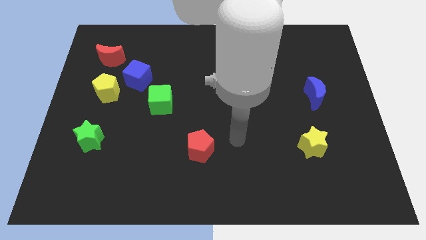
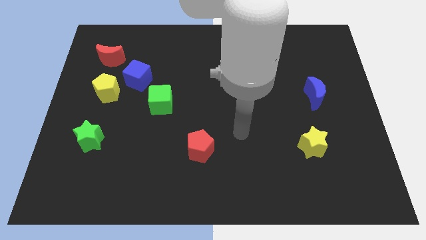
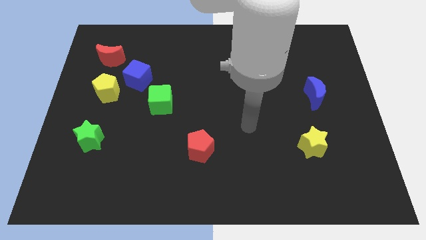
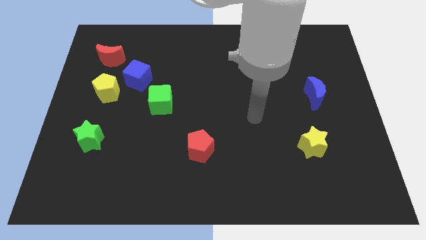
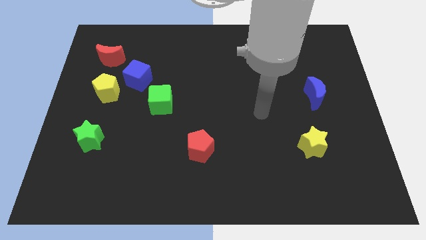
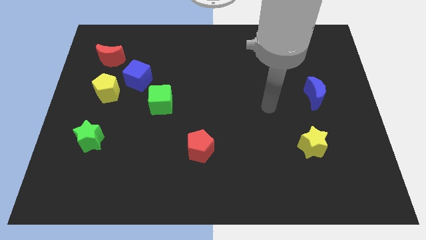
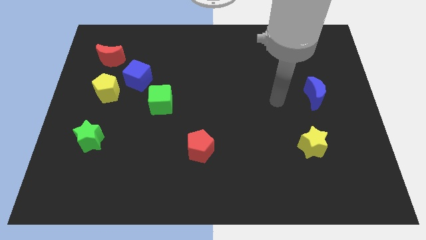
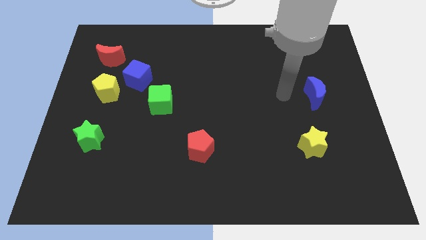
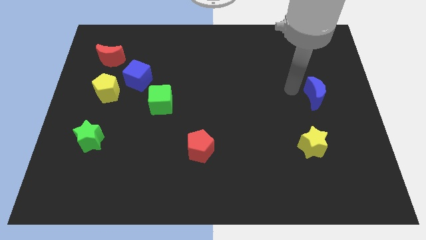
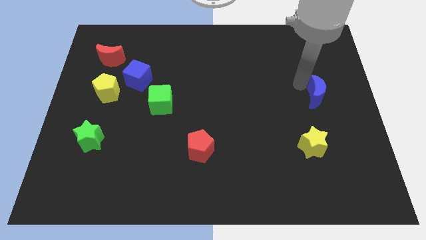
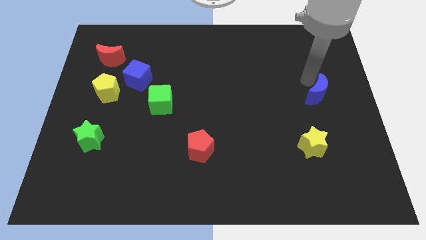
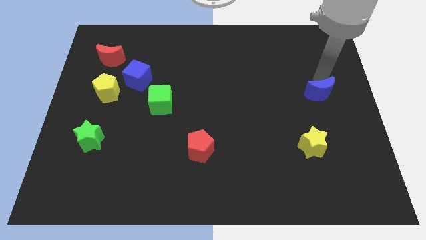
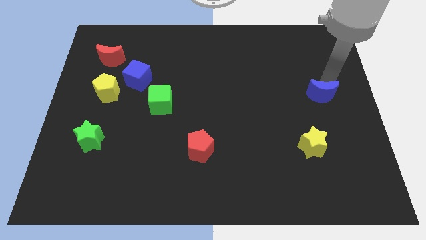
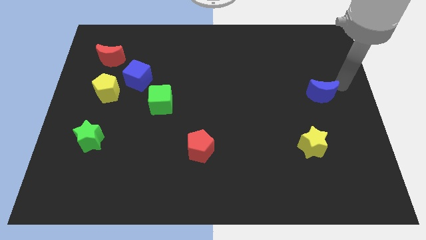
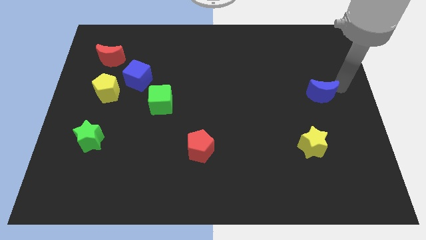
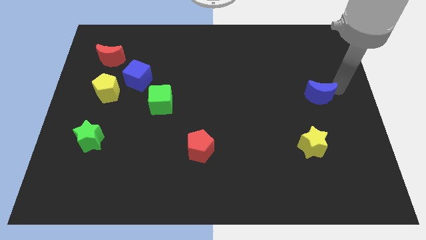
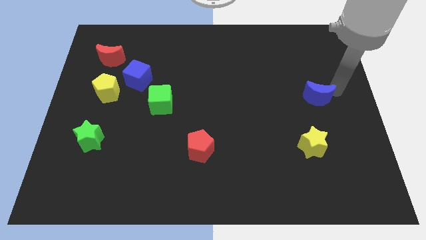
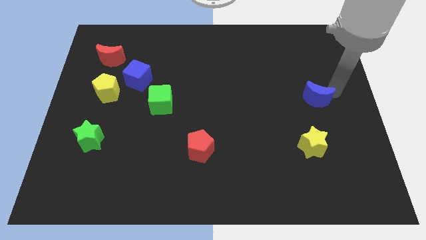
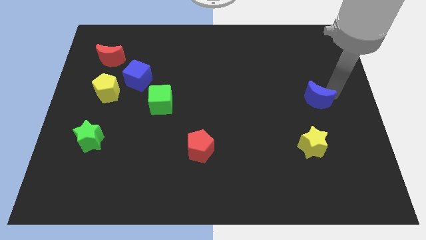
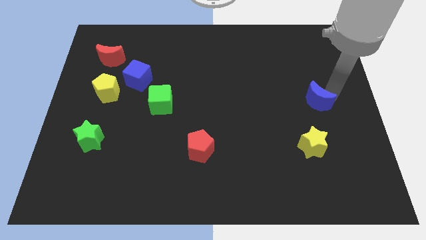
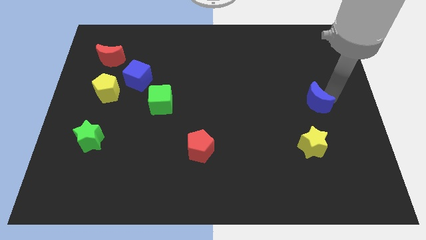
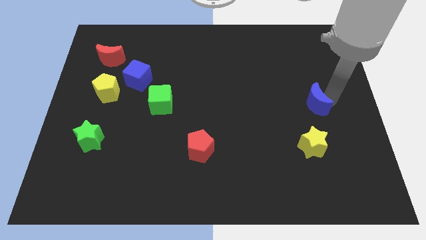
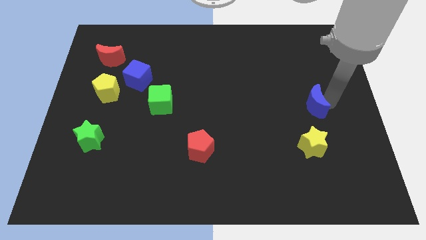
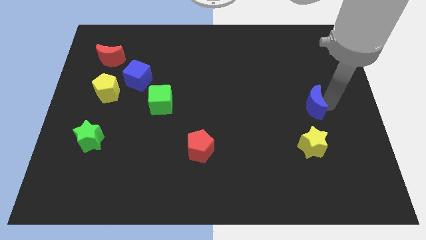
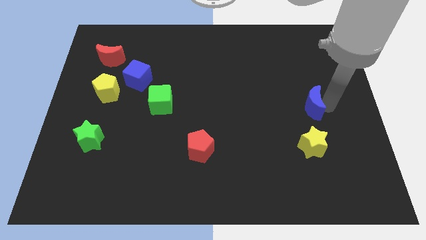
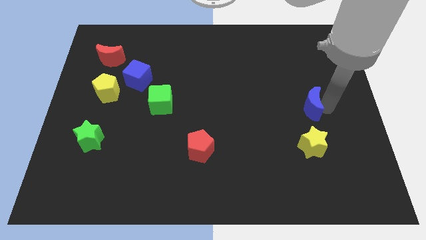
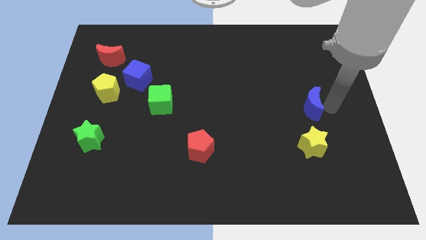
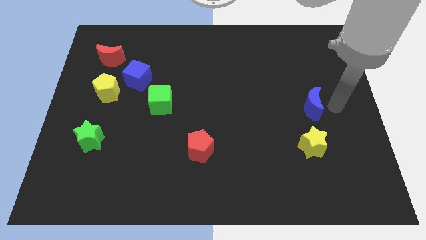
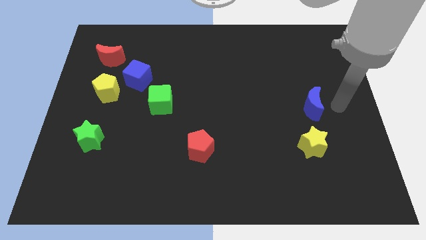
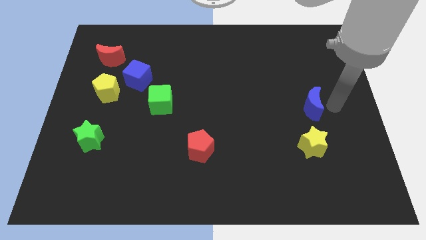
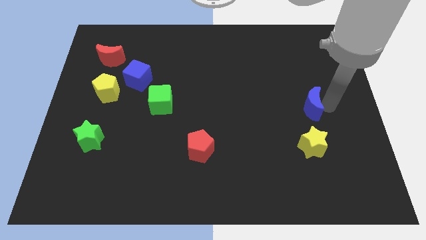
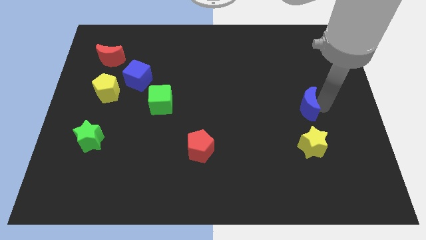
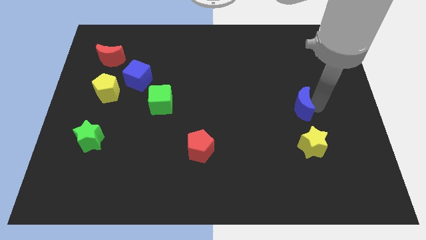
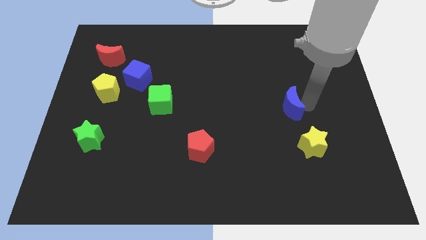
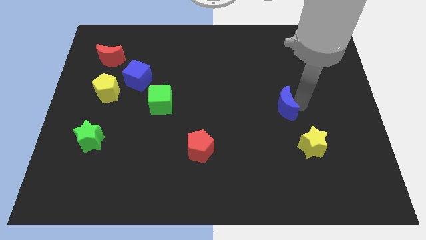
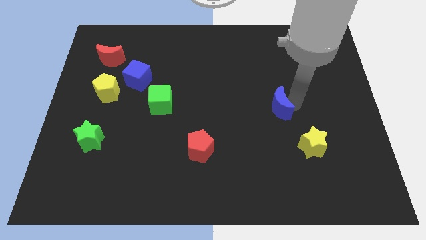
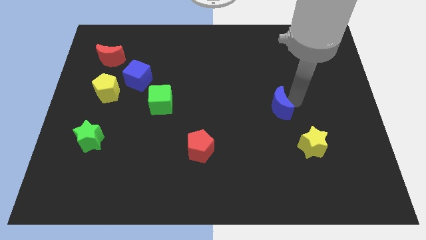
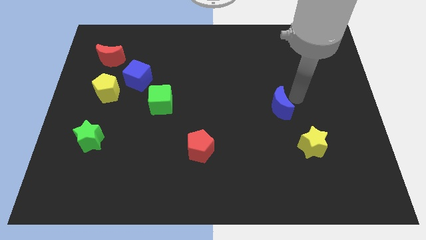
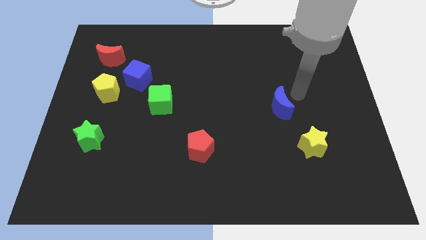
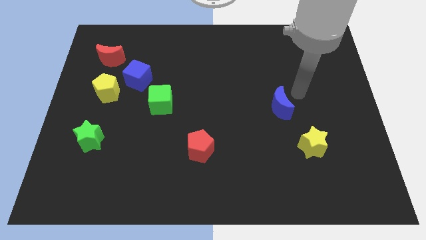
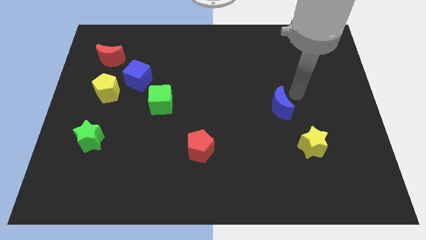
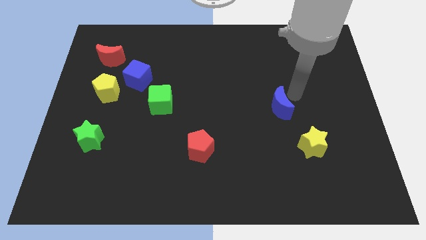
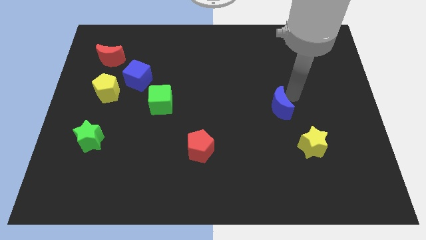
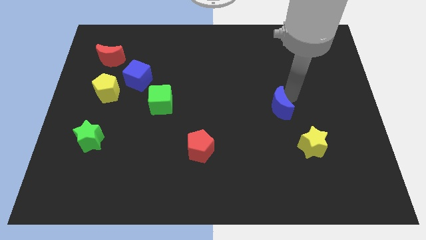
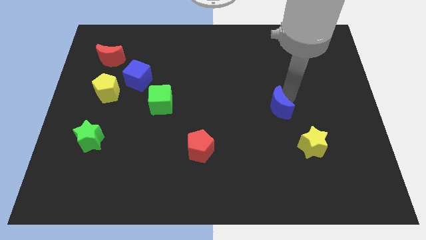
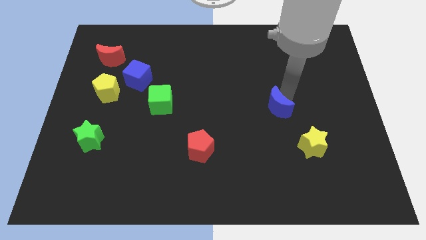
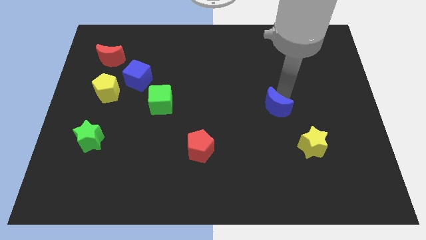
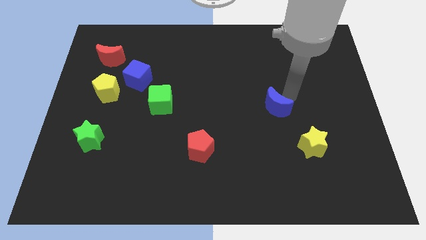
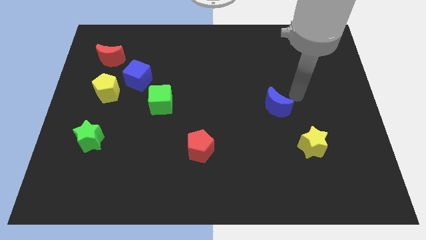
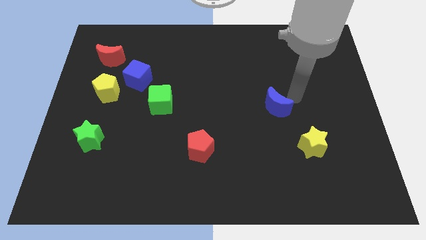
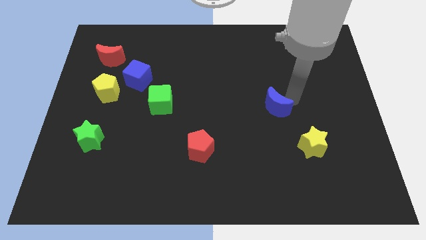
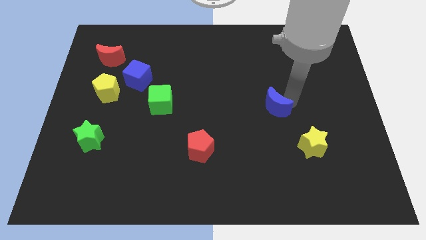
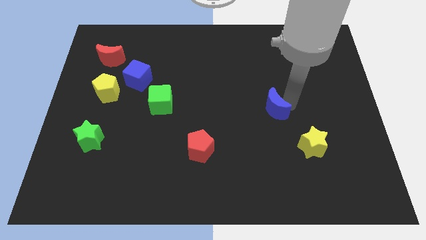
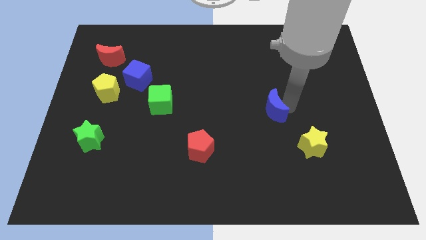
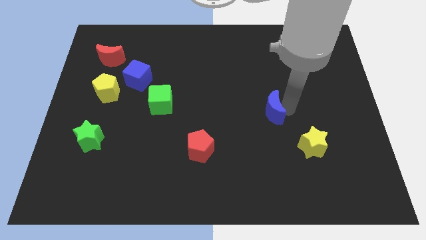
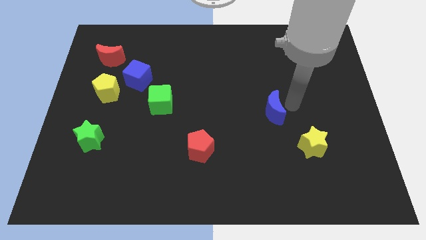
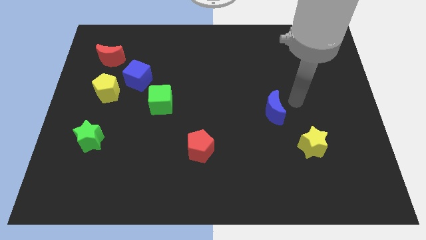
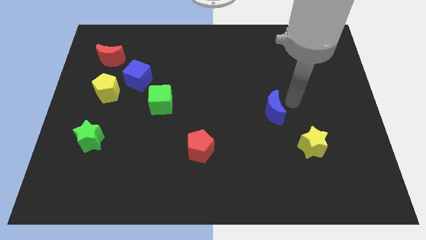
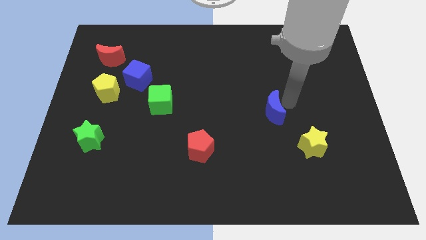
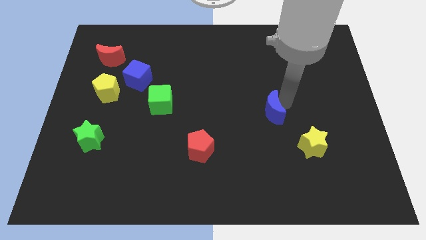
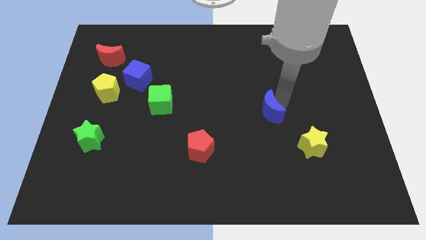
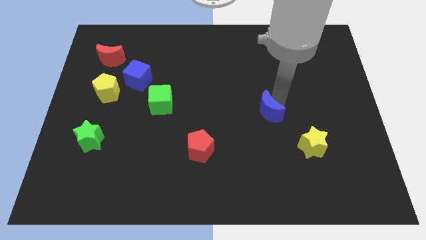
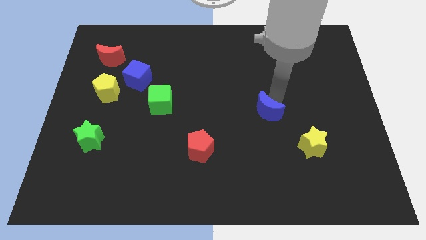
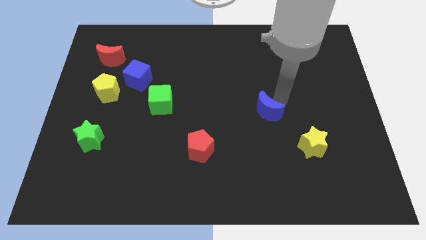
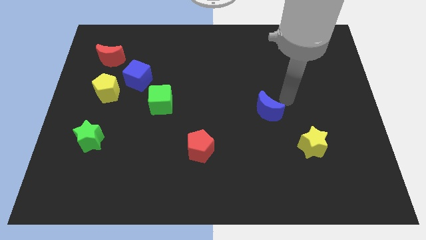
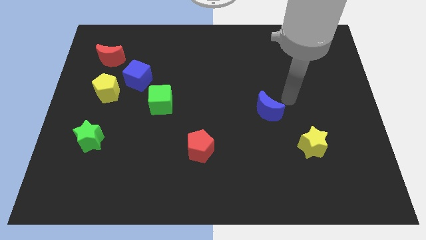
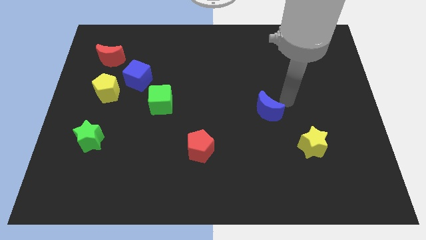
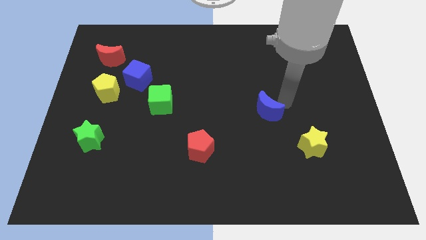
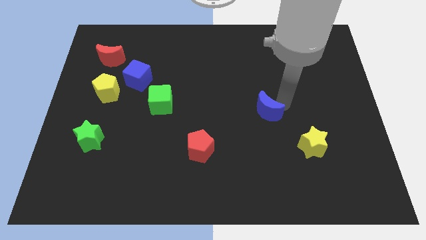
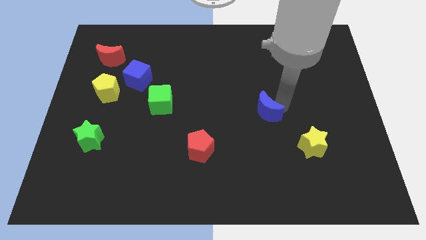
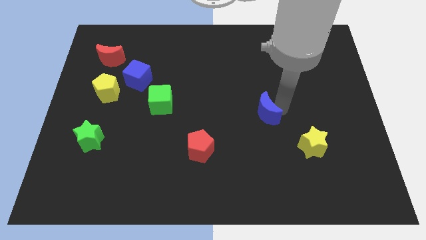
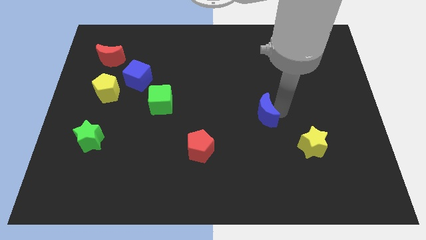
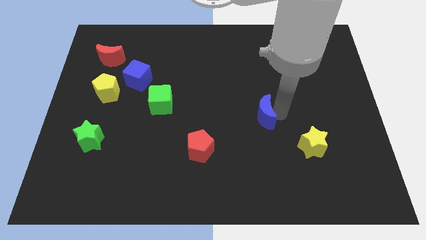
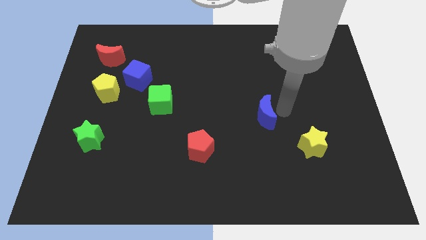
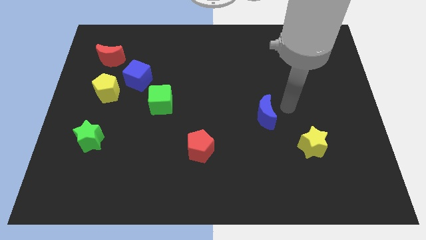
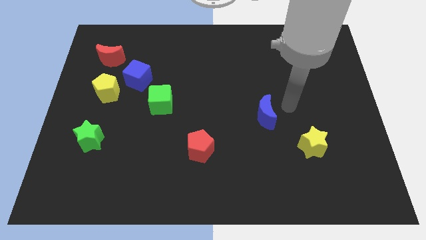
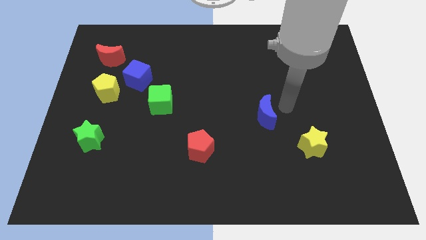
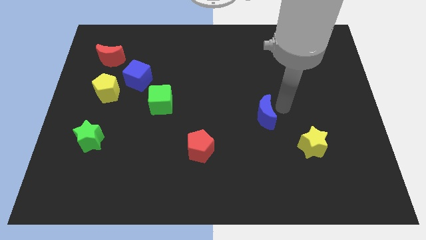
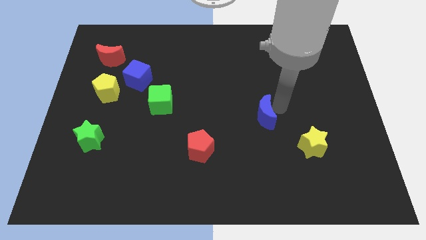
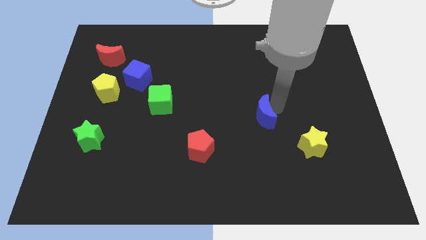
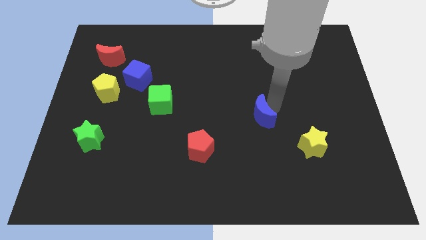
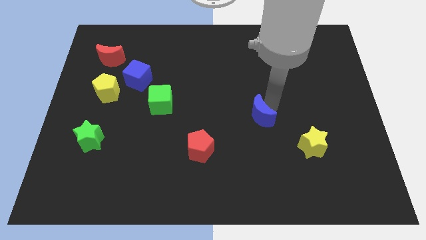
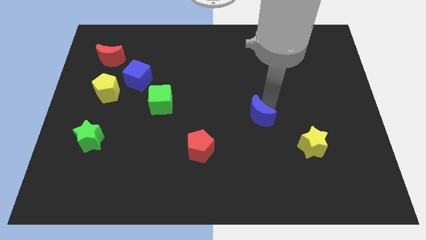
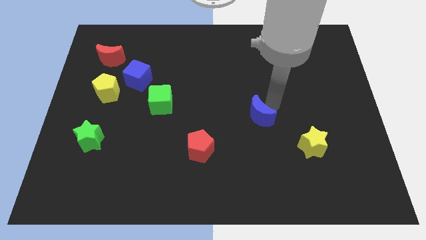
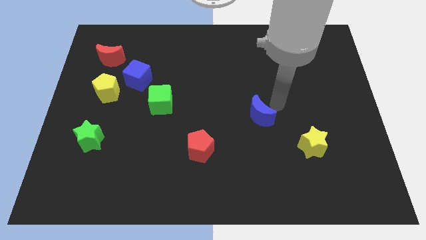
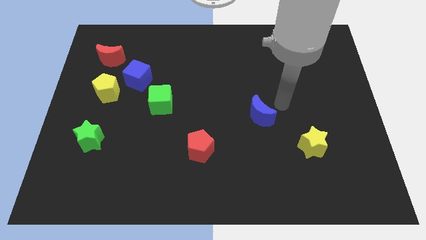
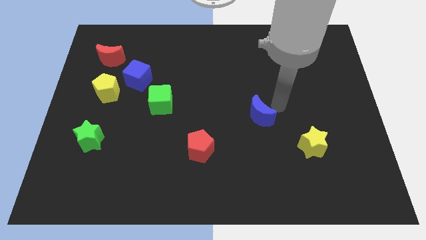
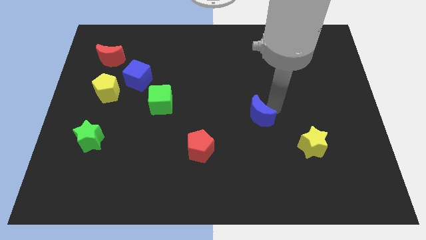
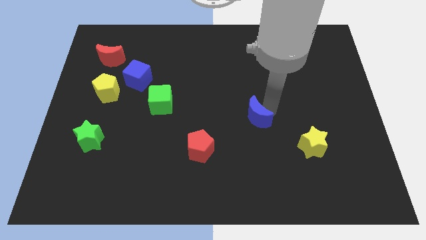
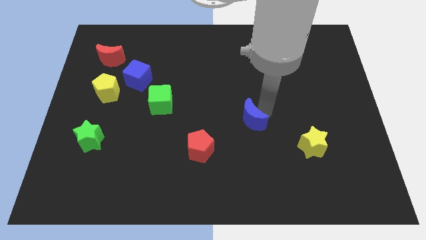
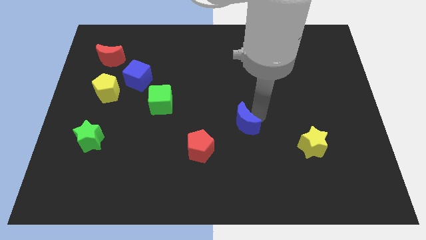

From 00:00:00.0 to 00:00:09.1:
push the blue moon to the top right side of the red pentagon
